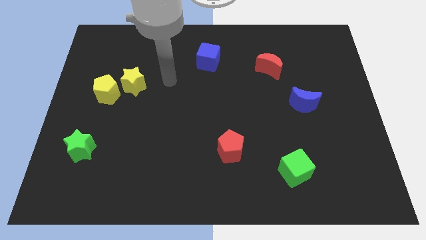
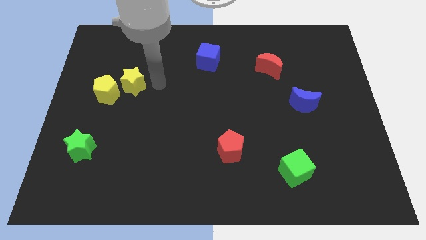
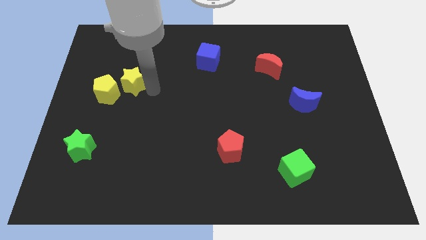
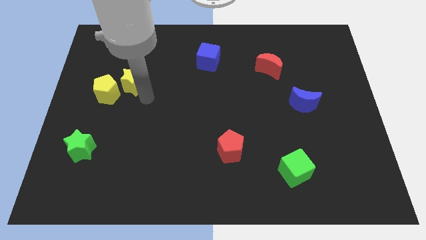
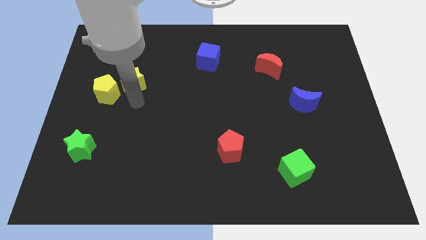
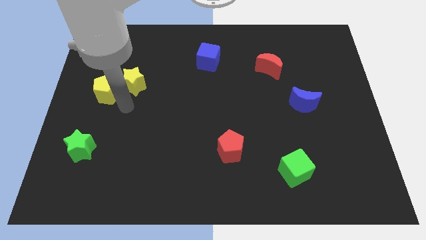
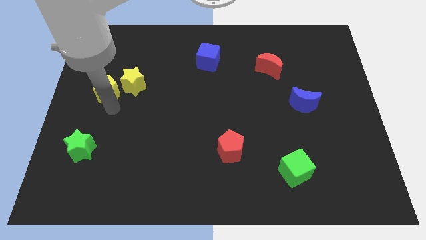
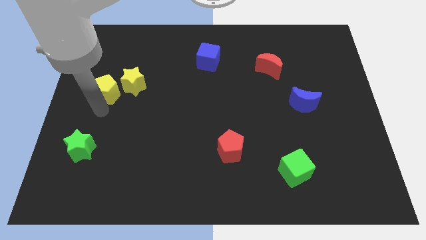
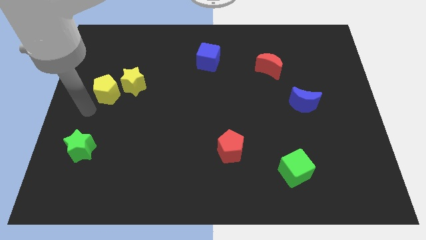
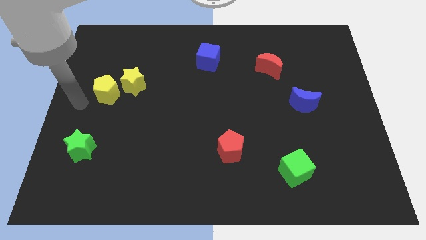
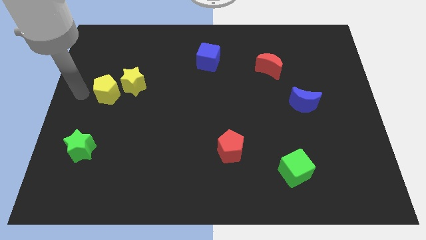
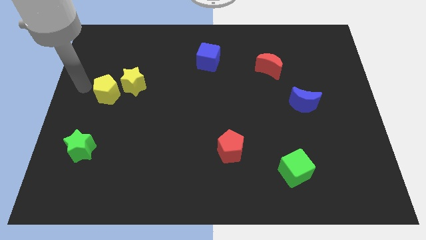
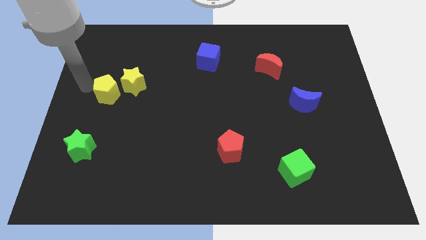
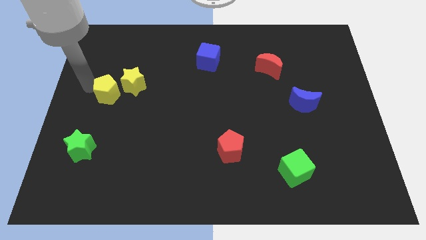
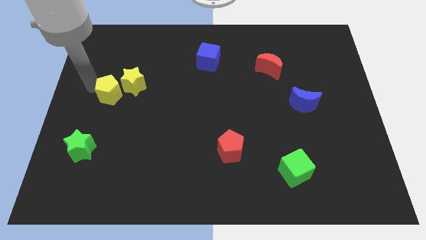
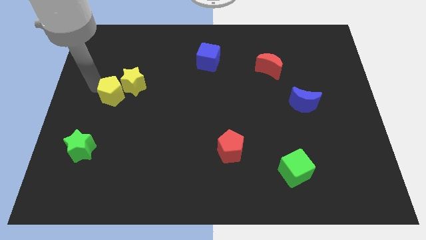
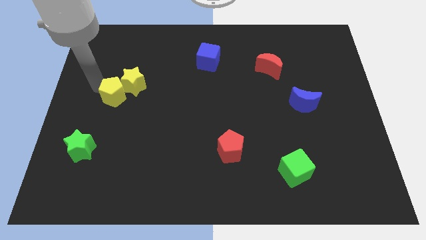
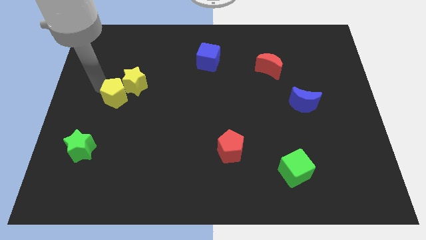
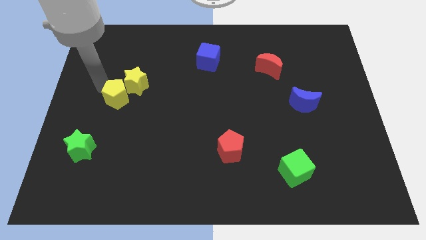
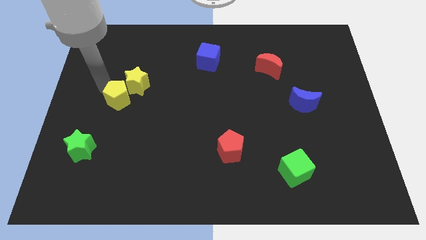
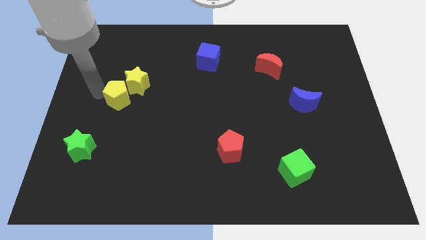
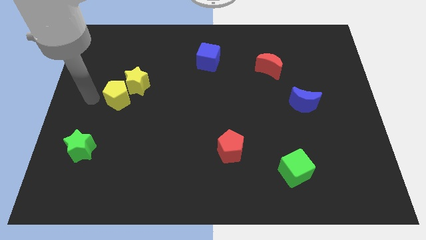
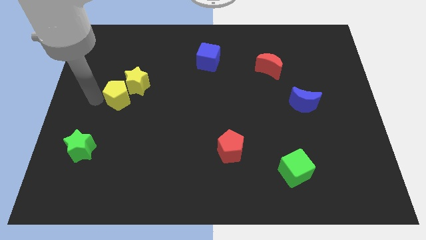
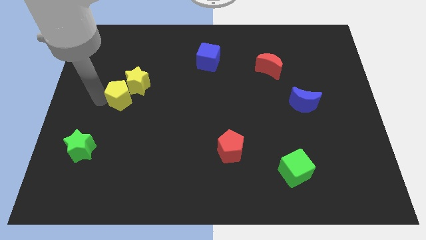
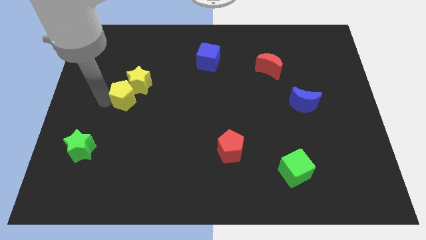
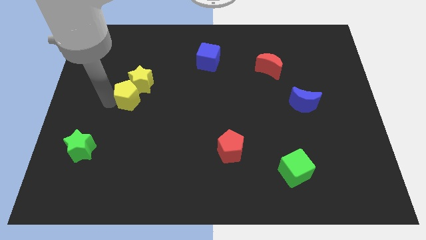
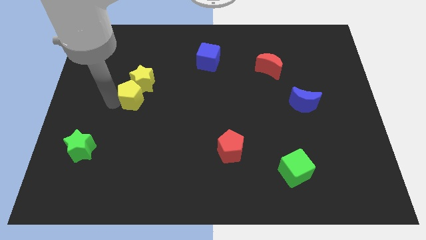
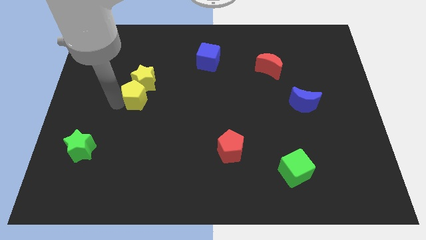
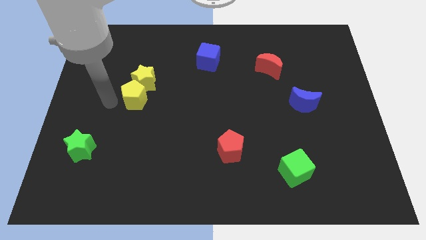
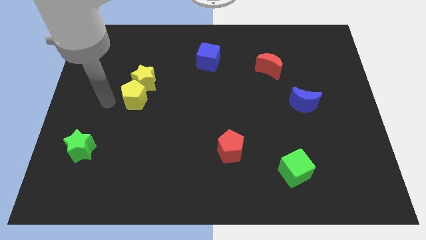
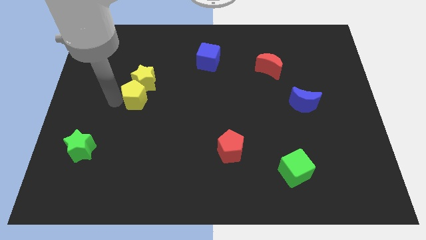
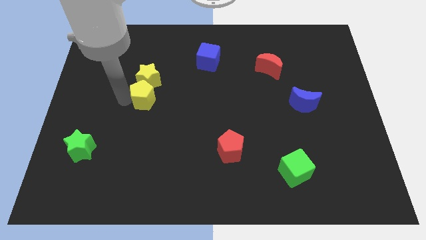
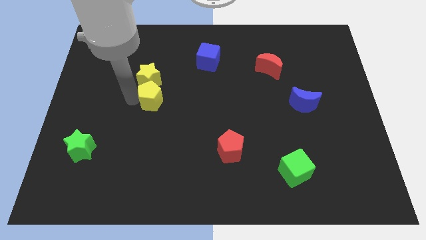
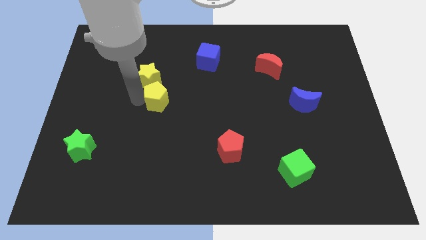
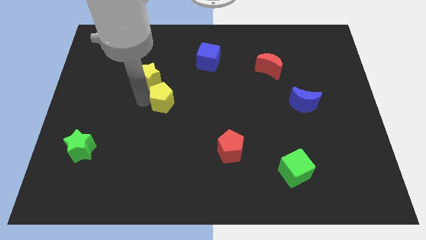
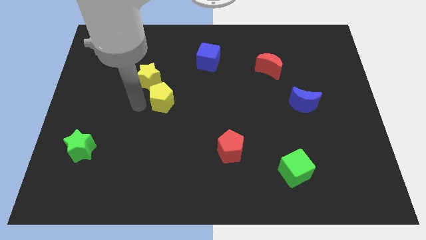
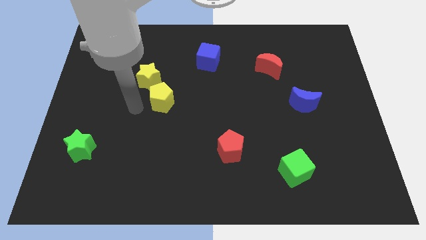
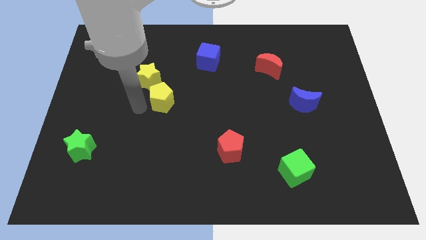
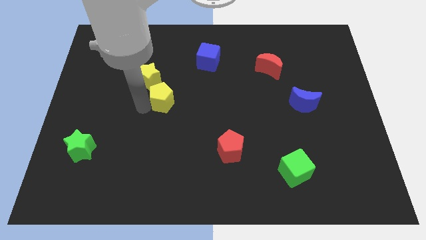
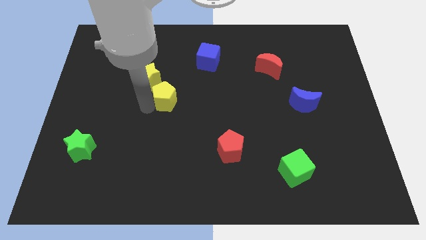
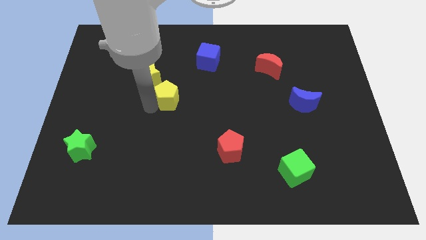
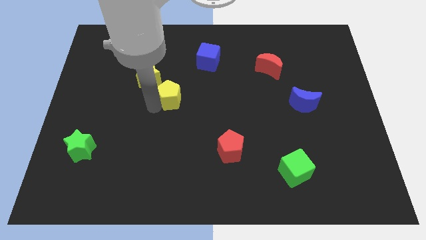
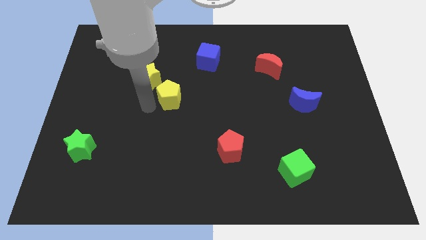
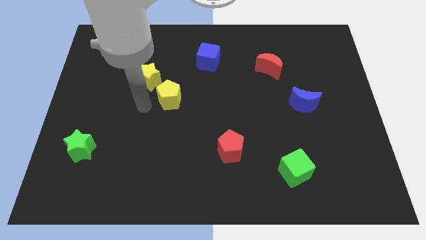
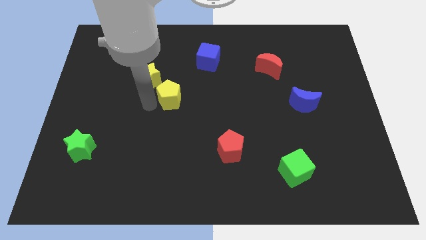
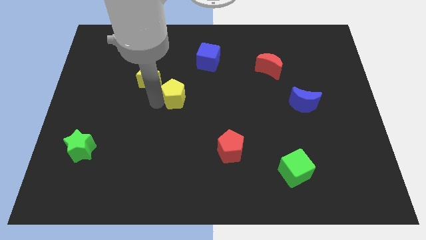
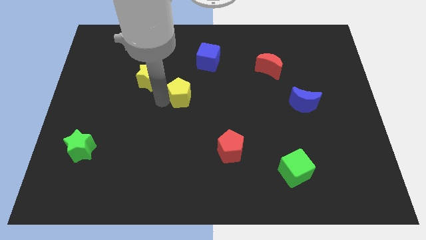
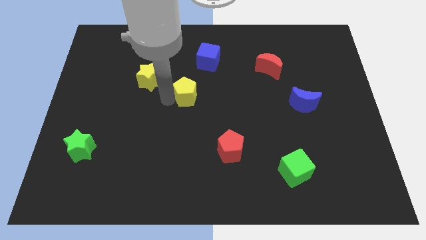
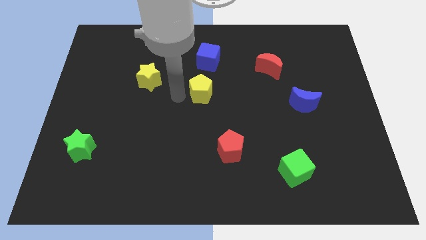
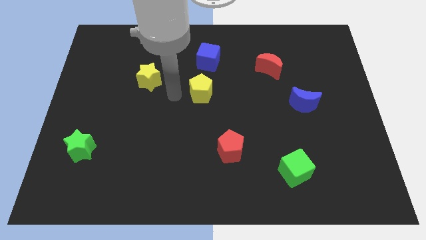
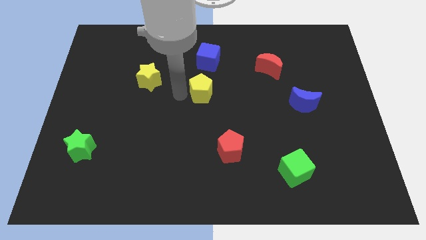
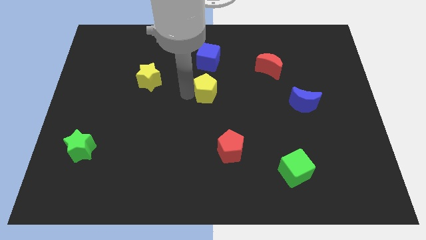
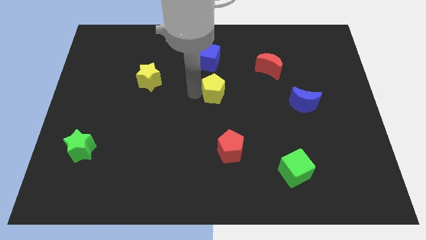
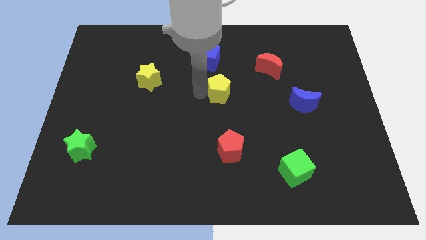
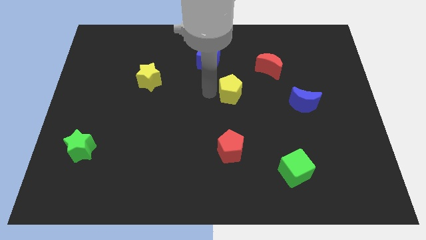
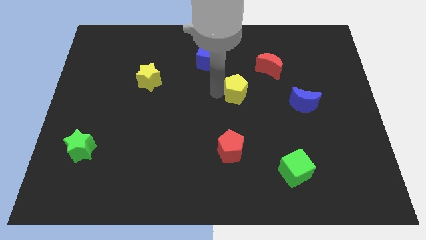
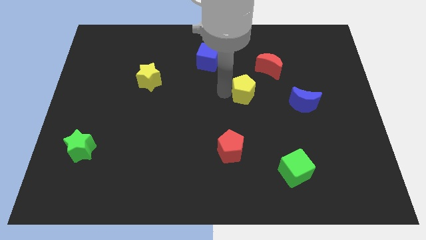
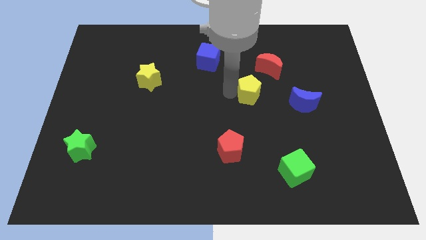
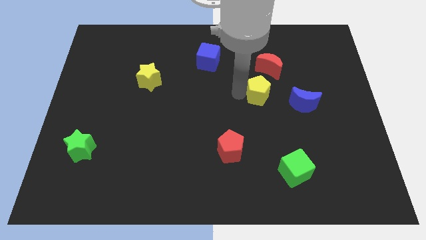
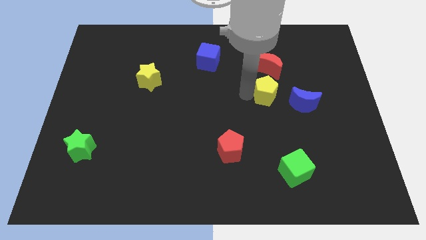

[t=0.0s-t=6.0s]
move the yellow pentagon to the top left side of the blue moon

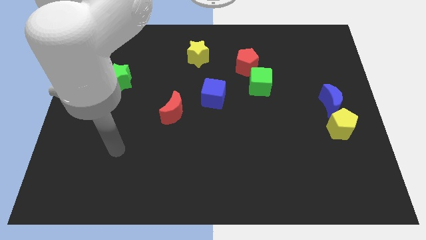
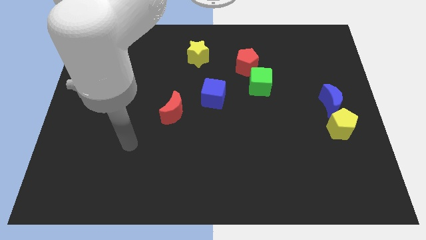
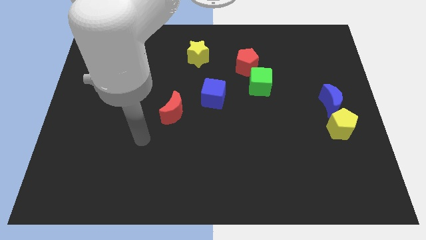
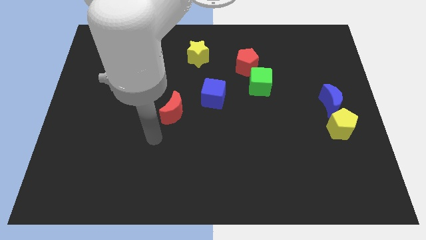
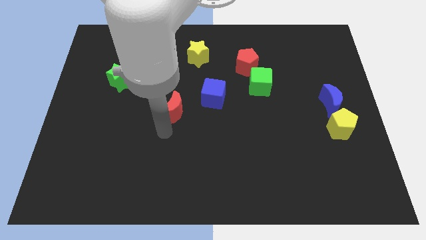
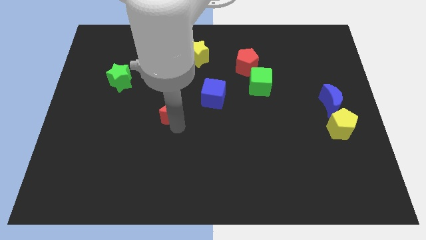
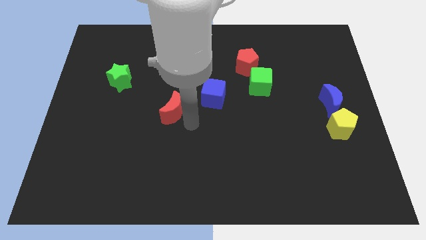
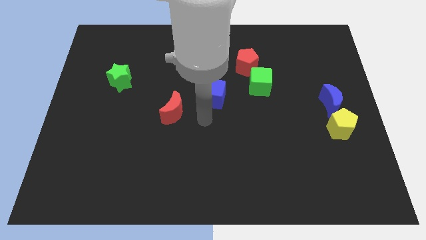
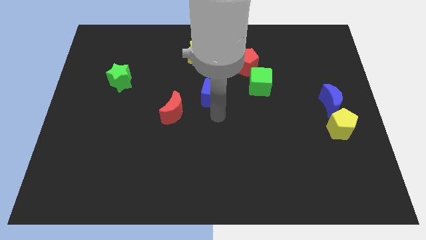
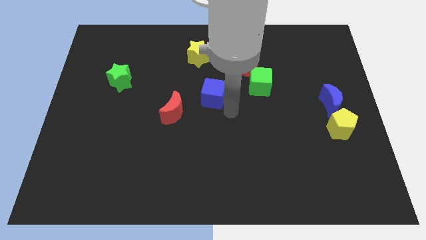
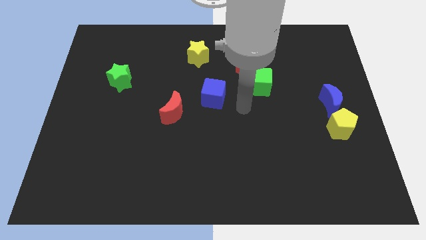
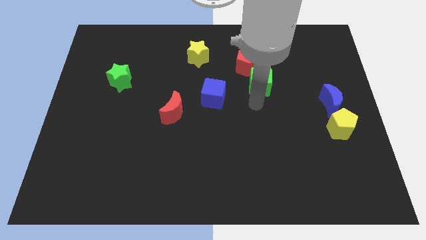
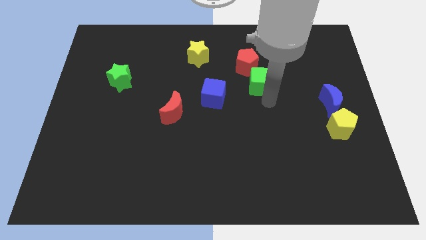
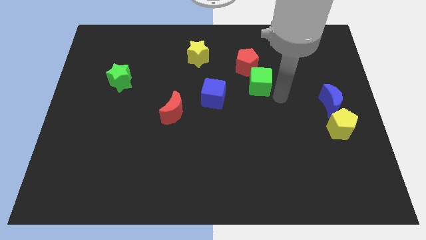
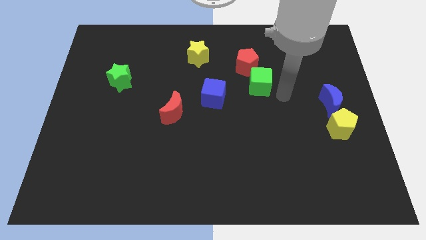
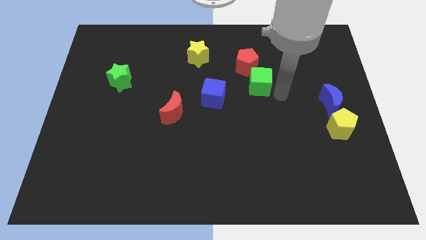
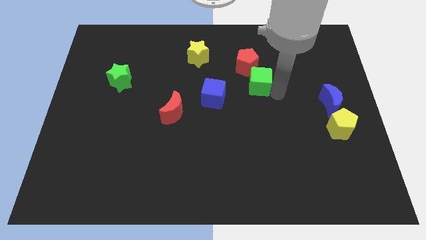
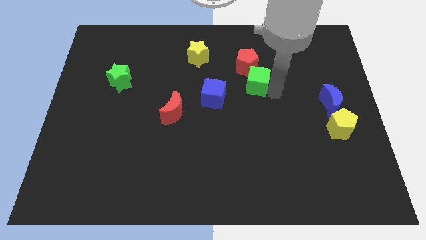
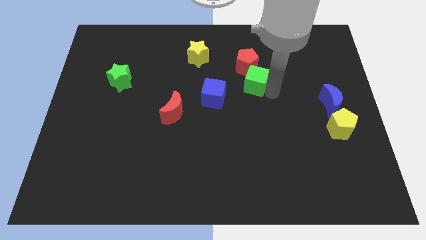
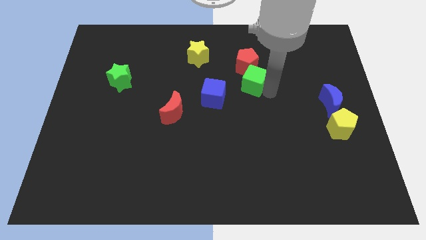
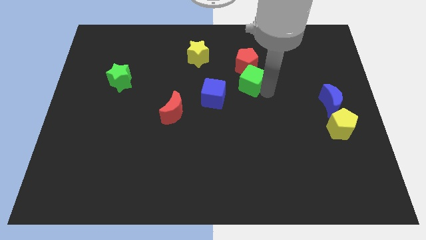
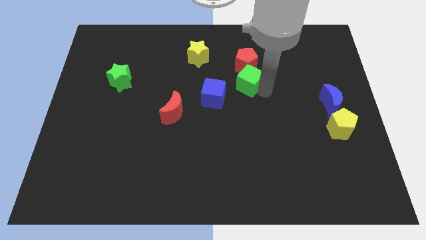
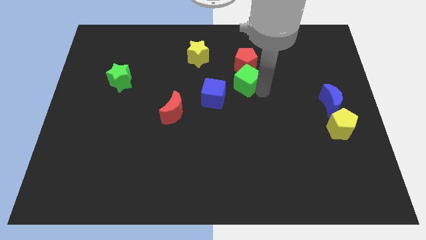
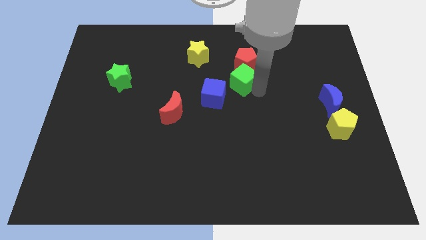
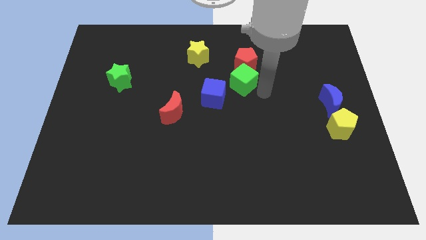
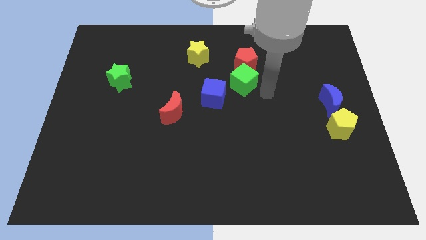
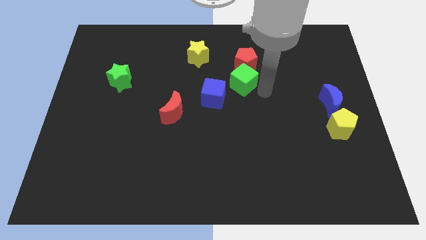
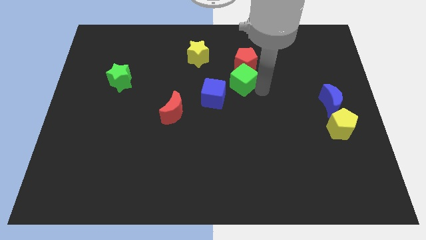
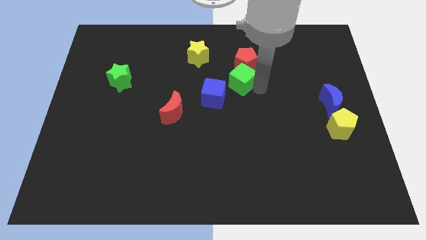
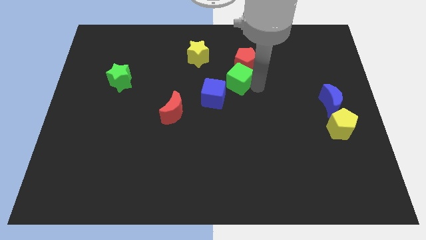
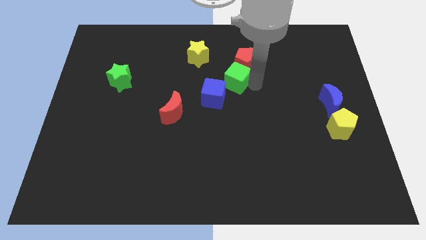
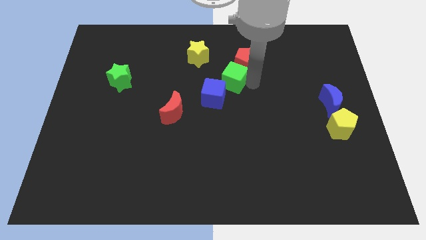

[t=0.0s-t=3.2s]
slide the green cube diagonally down and to the right of the yellow star
